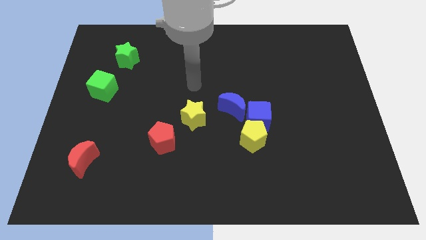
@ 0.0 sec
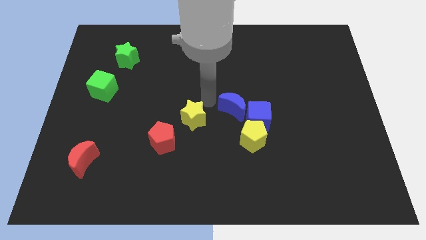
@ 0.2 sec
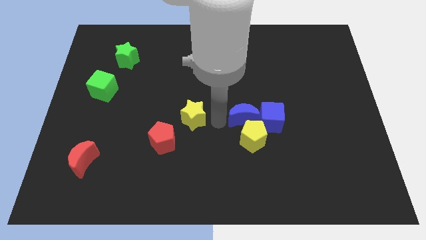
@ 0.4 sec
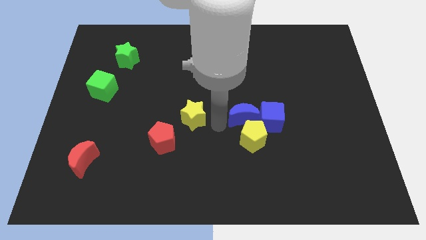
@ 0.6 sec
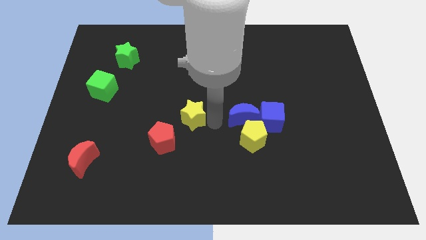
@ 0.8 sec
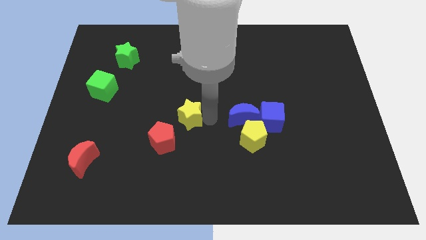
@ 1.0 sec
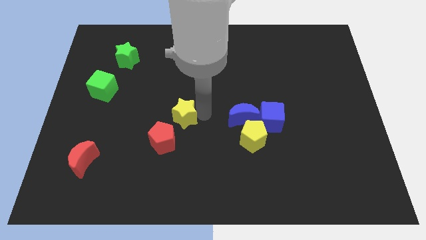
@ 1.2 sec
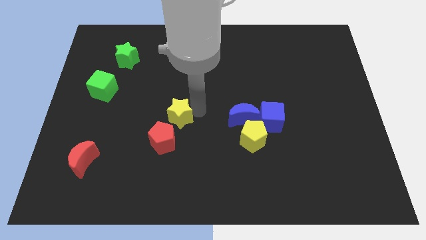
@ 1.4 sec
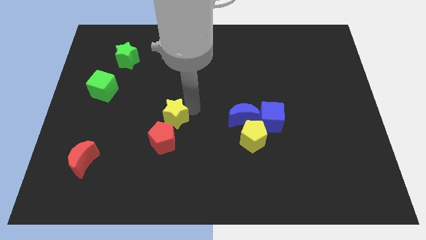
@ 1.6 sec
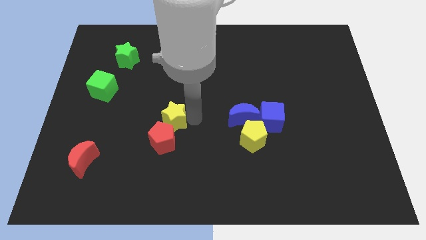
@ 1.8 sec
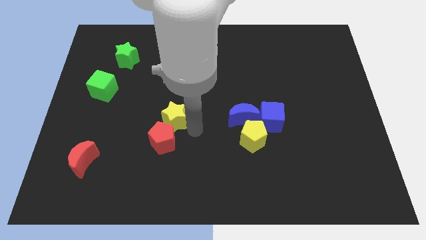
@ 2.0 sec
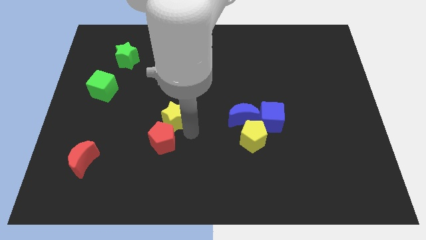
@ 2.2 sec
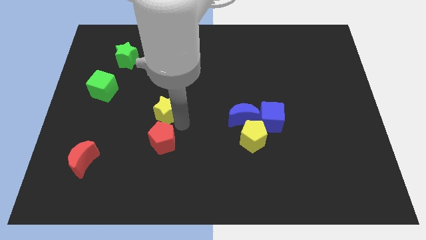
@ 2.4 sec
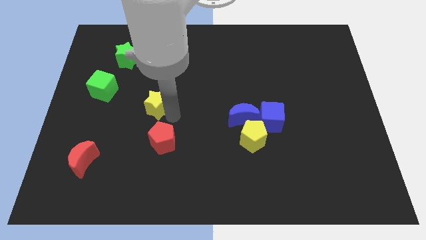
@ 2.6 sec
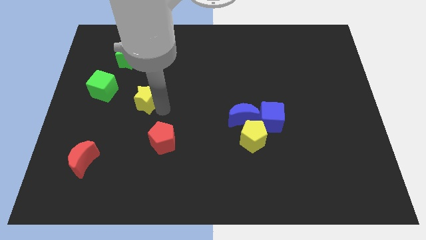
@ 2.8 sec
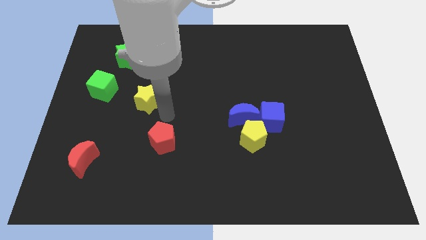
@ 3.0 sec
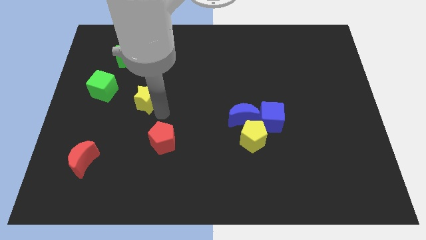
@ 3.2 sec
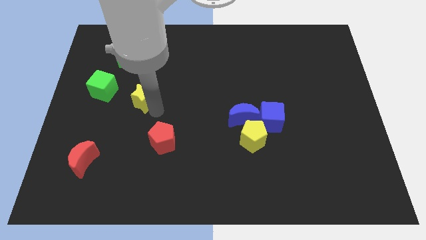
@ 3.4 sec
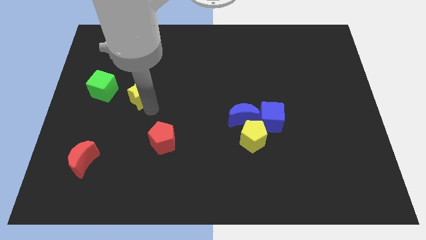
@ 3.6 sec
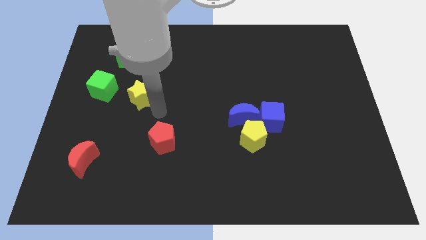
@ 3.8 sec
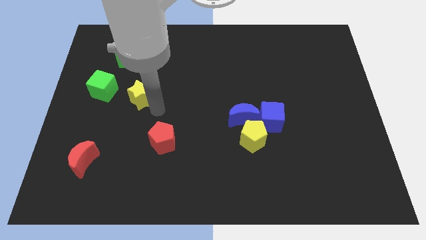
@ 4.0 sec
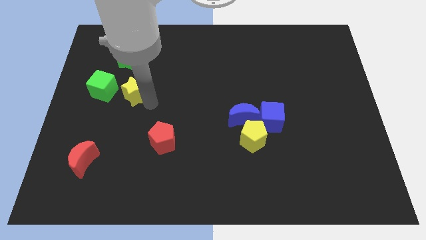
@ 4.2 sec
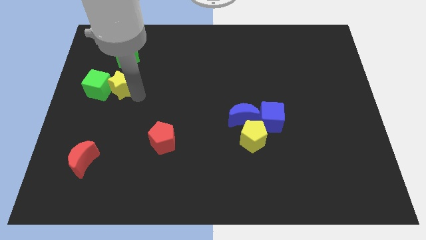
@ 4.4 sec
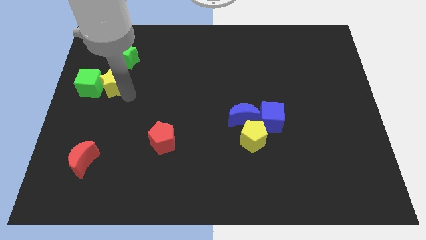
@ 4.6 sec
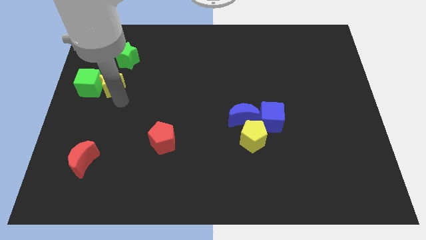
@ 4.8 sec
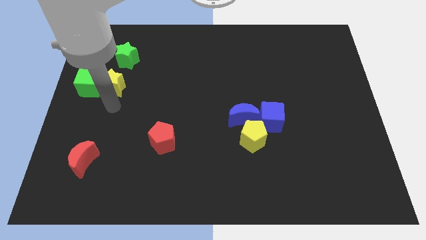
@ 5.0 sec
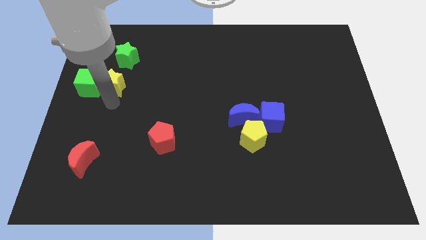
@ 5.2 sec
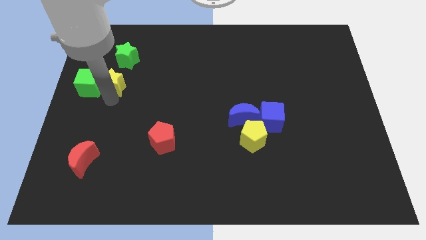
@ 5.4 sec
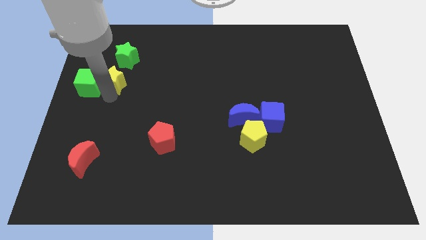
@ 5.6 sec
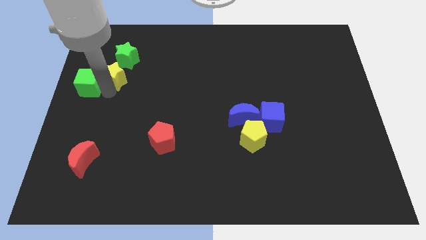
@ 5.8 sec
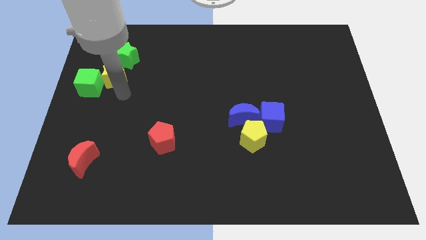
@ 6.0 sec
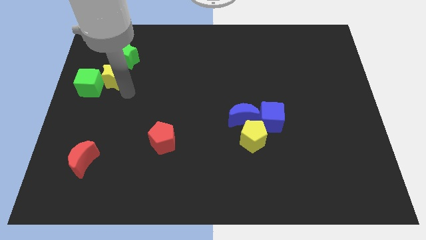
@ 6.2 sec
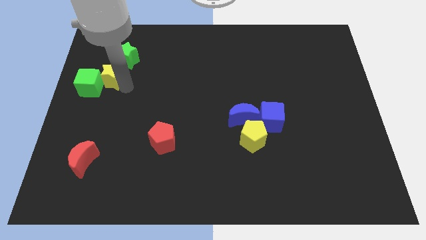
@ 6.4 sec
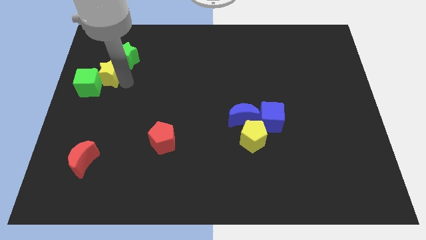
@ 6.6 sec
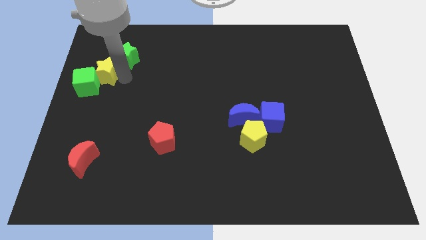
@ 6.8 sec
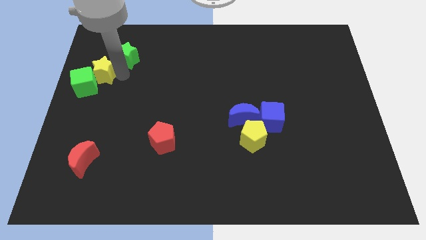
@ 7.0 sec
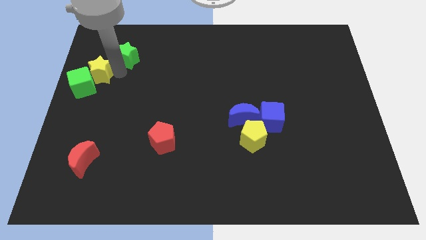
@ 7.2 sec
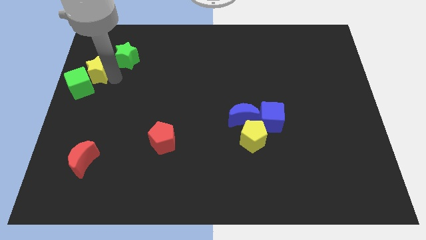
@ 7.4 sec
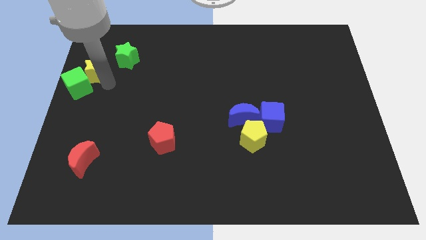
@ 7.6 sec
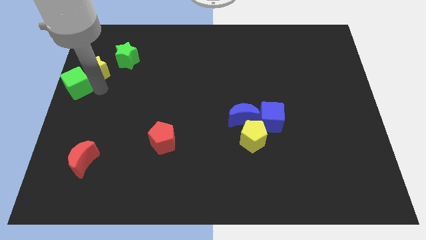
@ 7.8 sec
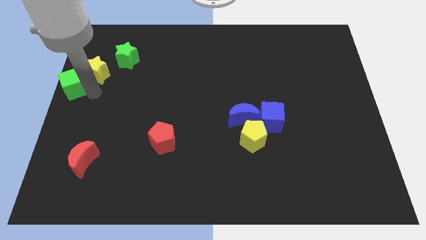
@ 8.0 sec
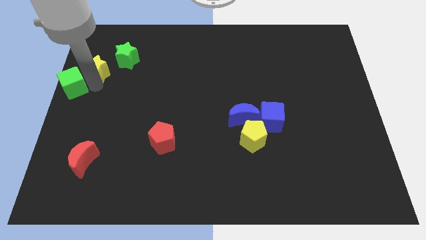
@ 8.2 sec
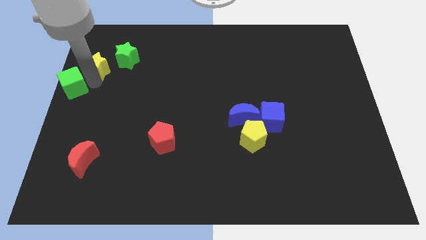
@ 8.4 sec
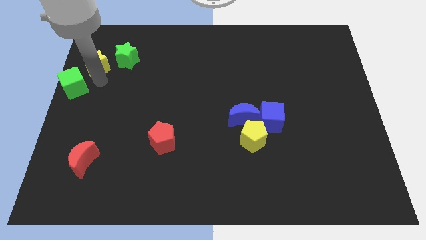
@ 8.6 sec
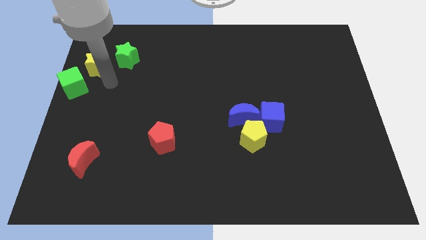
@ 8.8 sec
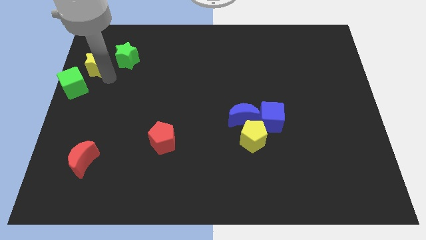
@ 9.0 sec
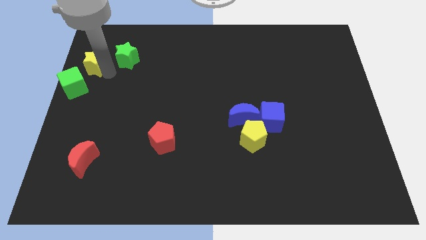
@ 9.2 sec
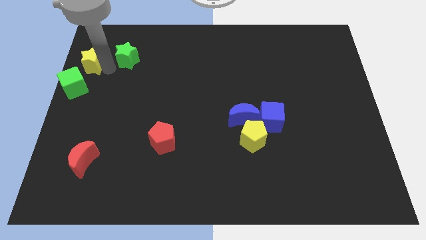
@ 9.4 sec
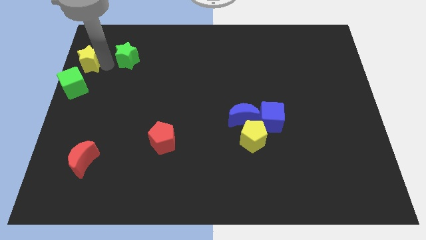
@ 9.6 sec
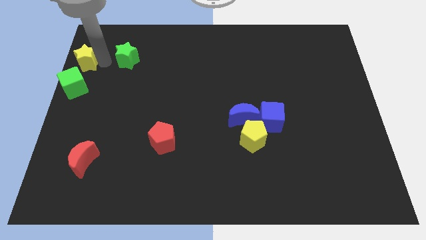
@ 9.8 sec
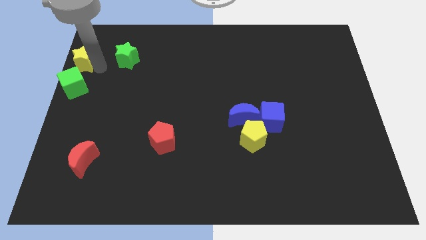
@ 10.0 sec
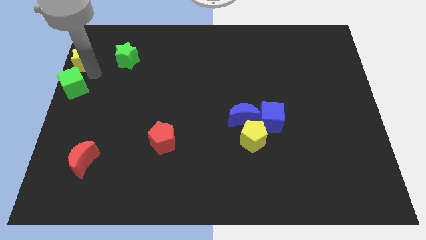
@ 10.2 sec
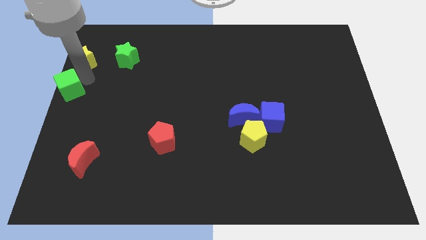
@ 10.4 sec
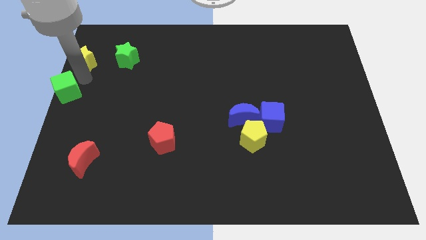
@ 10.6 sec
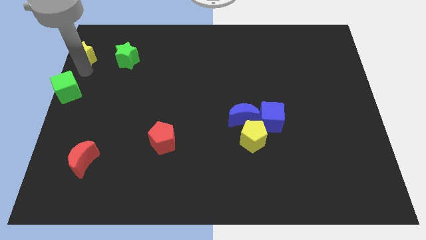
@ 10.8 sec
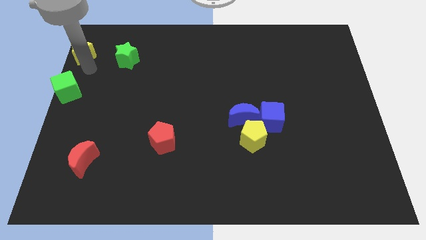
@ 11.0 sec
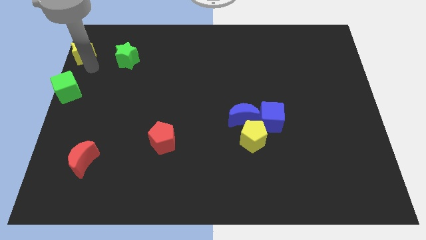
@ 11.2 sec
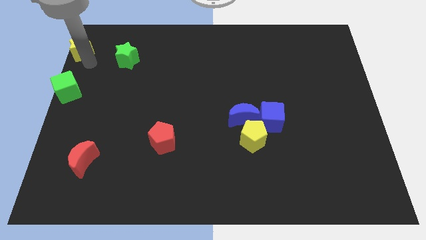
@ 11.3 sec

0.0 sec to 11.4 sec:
slide the yellow star to the upper left corner

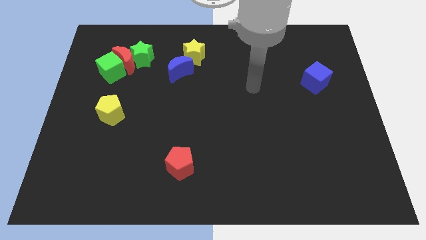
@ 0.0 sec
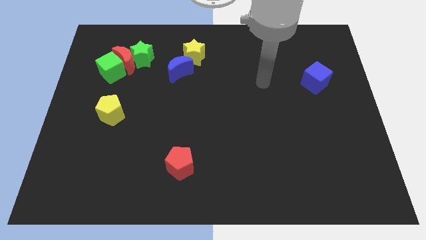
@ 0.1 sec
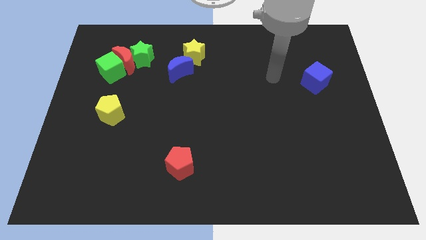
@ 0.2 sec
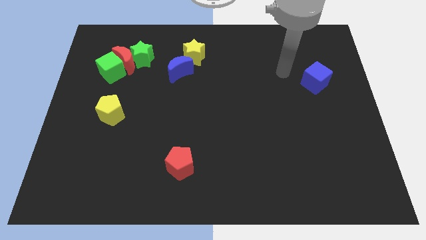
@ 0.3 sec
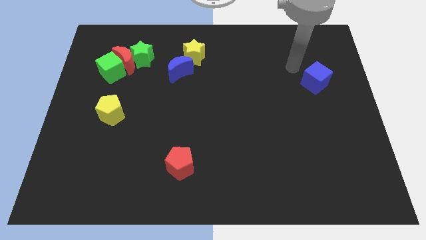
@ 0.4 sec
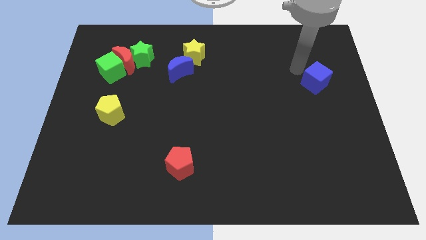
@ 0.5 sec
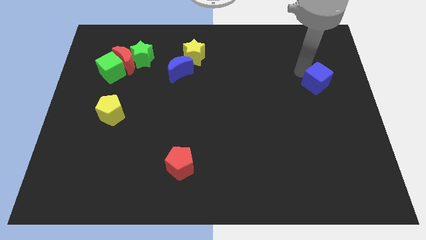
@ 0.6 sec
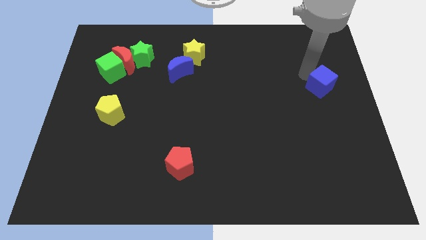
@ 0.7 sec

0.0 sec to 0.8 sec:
push the blue cube to the right side of the board

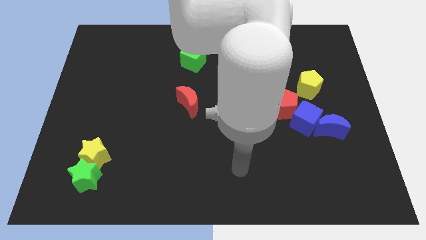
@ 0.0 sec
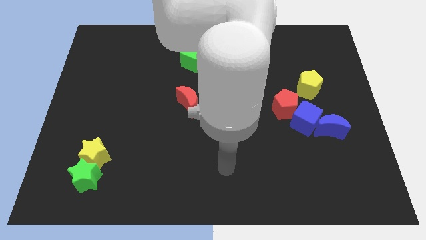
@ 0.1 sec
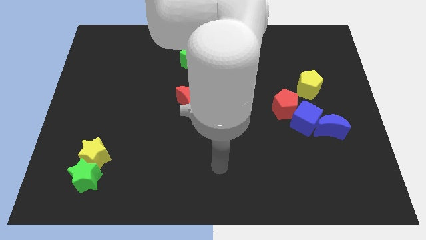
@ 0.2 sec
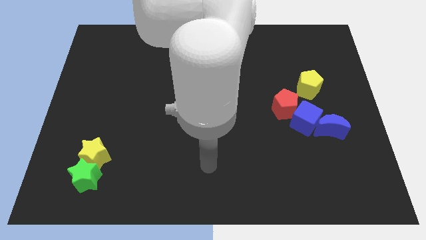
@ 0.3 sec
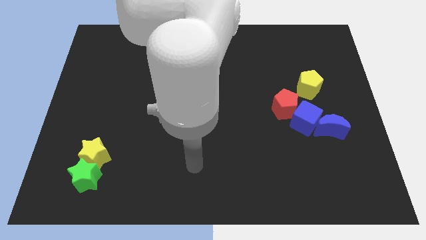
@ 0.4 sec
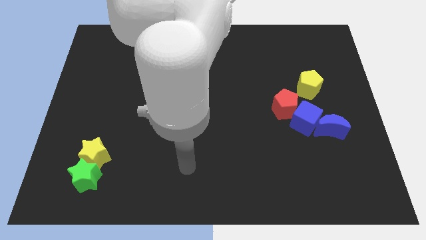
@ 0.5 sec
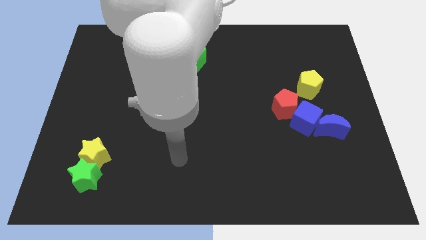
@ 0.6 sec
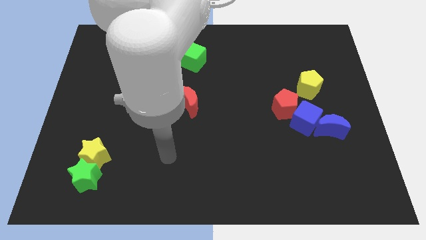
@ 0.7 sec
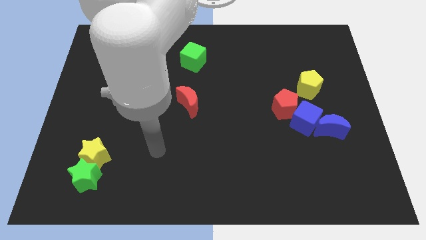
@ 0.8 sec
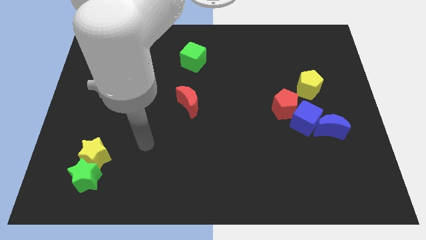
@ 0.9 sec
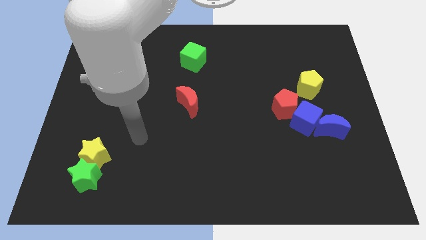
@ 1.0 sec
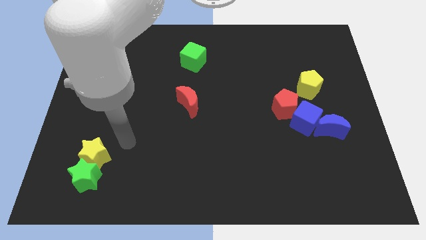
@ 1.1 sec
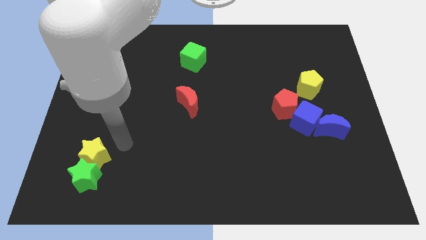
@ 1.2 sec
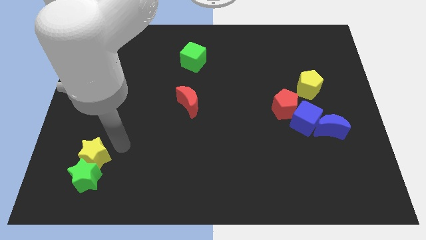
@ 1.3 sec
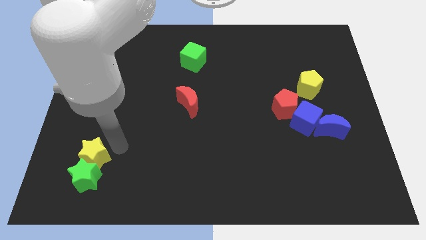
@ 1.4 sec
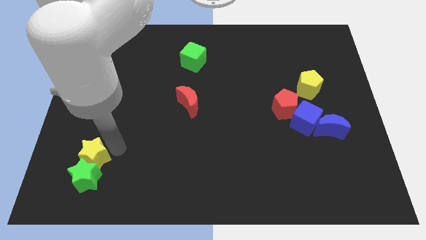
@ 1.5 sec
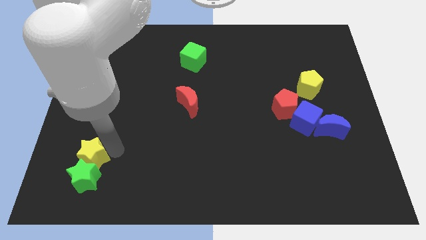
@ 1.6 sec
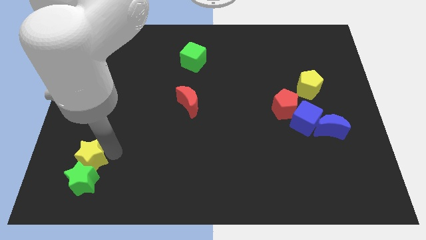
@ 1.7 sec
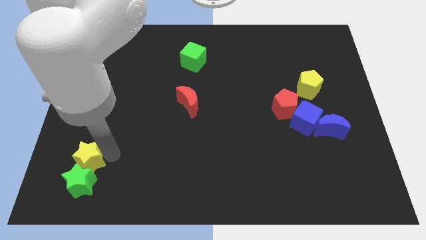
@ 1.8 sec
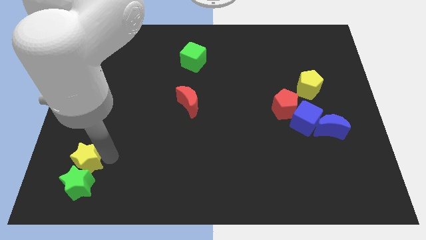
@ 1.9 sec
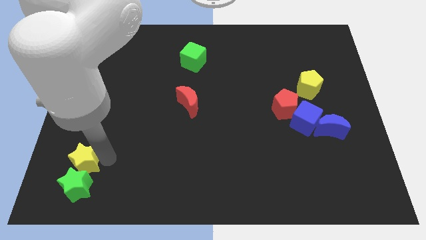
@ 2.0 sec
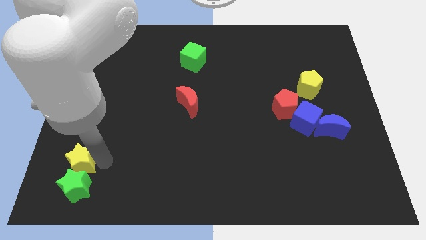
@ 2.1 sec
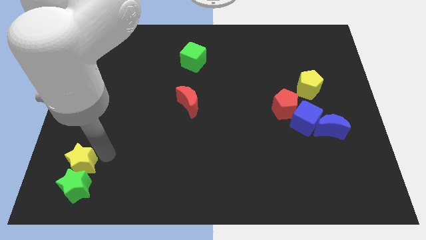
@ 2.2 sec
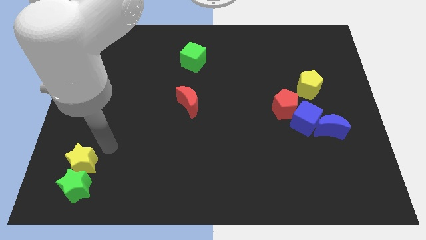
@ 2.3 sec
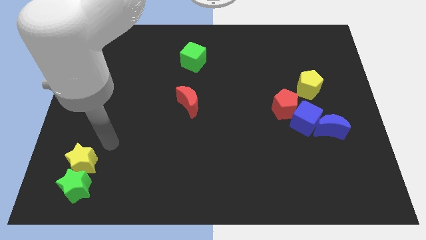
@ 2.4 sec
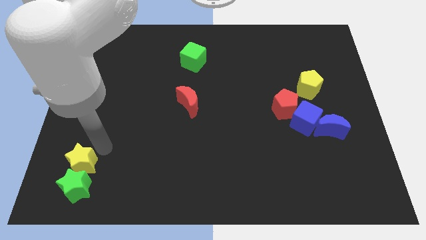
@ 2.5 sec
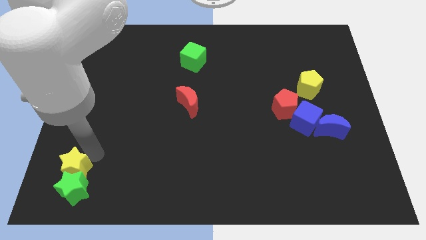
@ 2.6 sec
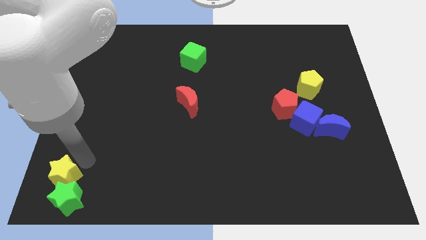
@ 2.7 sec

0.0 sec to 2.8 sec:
slide the yellow star to the lower left corner
